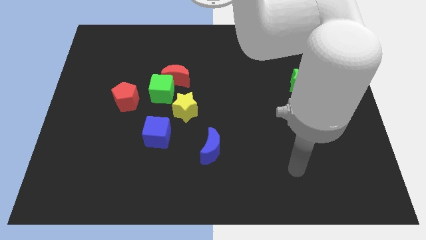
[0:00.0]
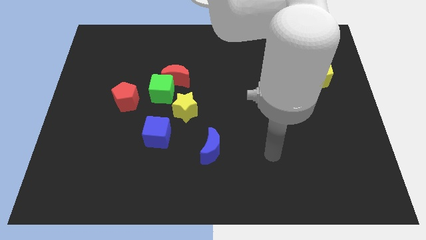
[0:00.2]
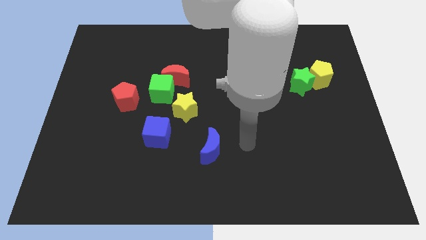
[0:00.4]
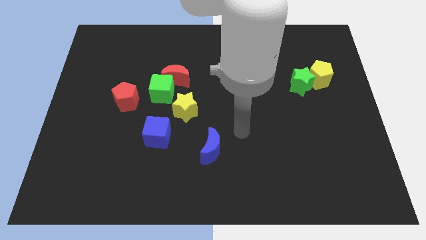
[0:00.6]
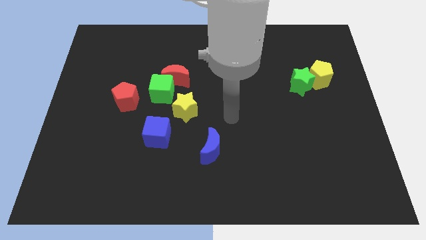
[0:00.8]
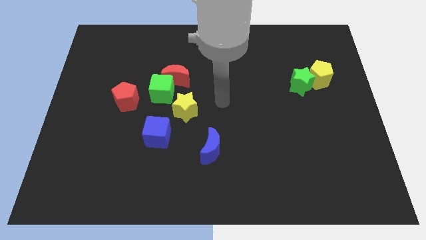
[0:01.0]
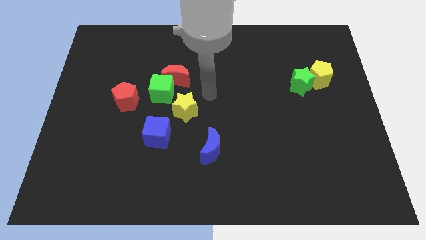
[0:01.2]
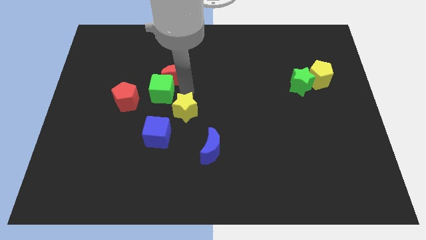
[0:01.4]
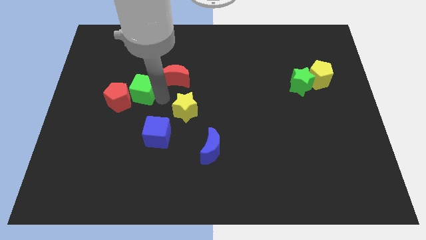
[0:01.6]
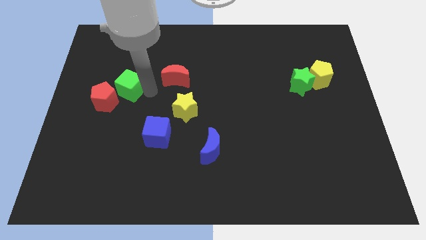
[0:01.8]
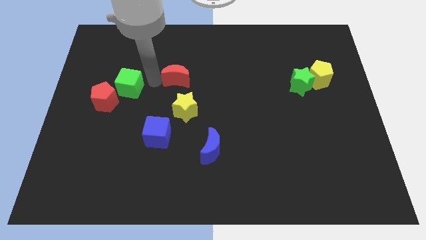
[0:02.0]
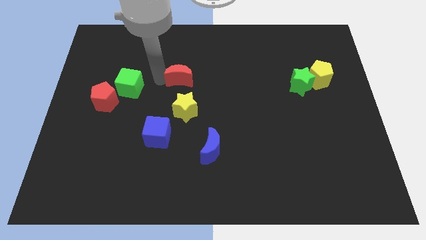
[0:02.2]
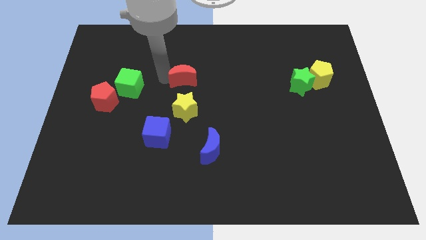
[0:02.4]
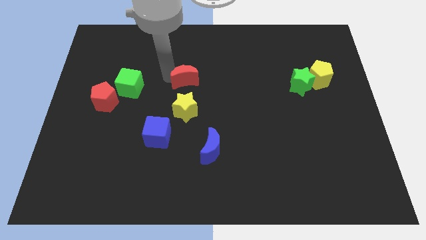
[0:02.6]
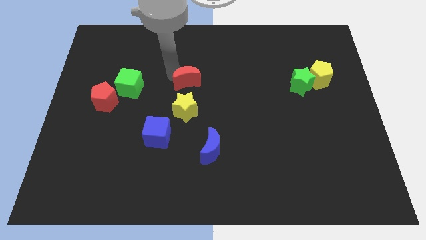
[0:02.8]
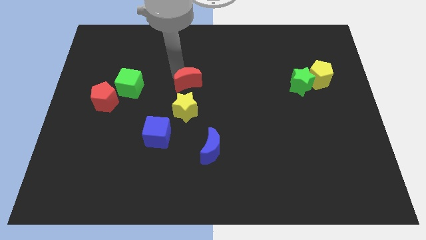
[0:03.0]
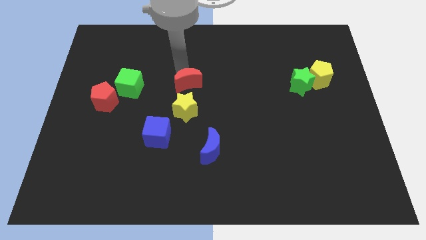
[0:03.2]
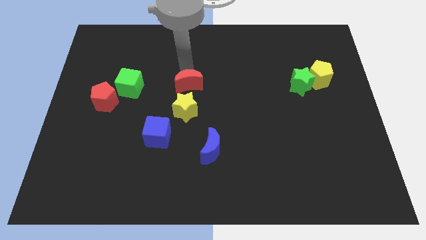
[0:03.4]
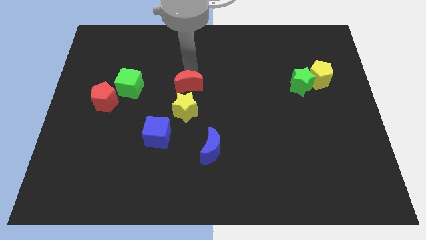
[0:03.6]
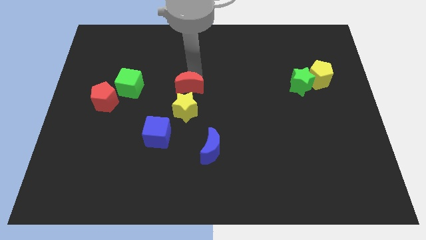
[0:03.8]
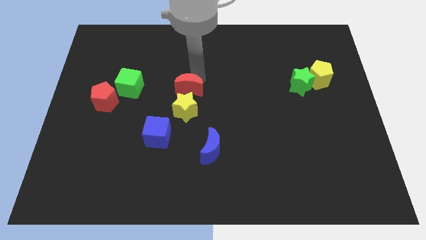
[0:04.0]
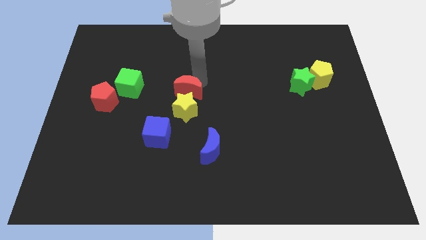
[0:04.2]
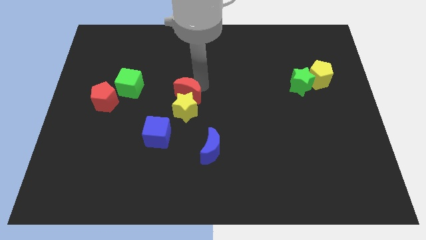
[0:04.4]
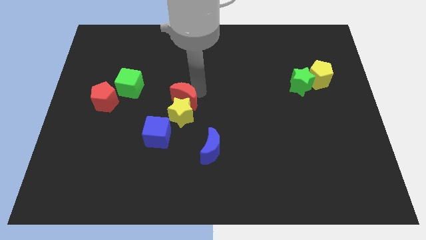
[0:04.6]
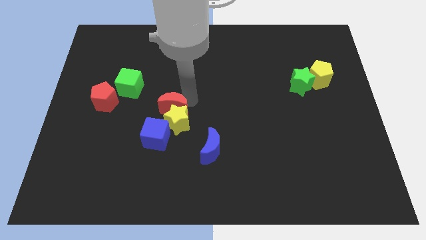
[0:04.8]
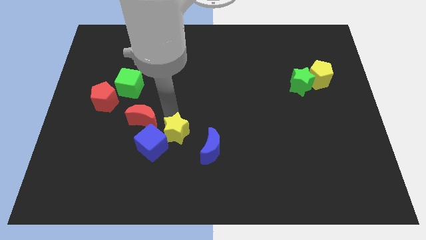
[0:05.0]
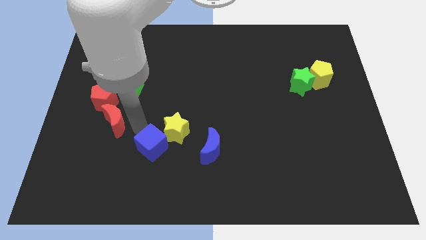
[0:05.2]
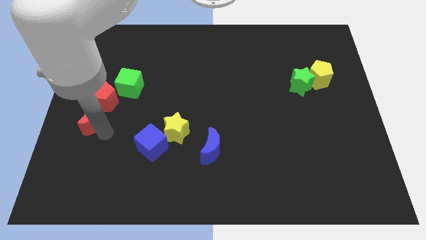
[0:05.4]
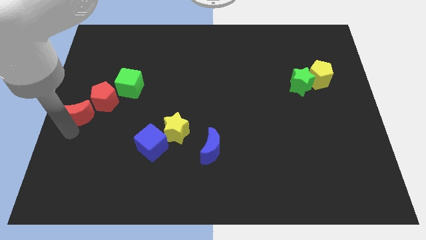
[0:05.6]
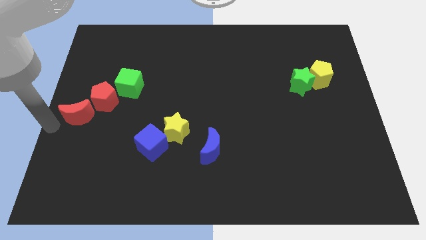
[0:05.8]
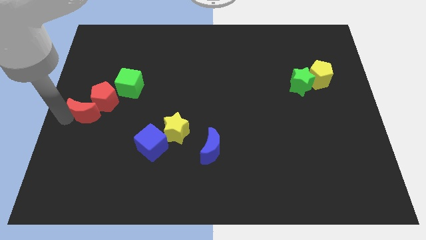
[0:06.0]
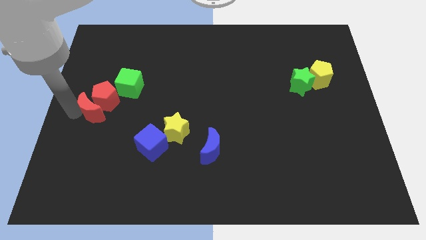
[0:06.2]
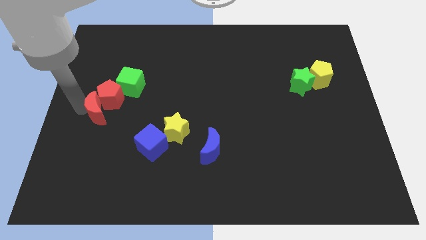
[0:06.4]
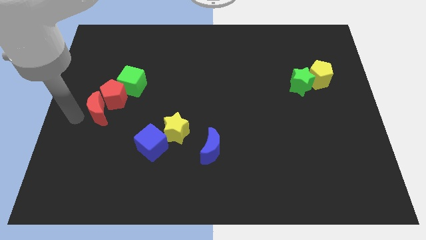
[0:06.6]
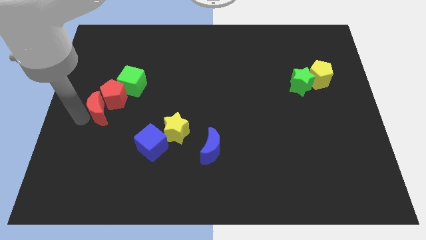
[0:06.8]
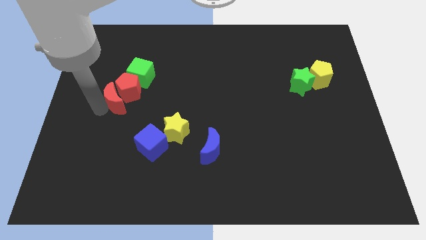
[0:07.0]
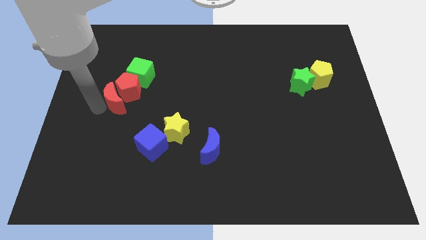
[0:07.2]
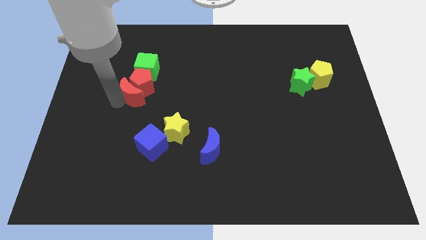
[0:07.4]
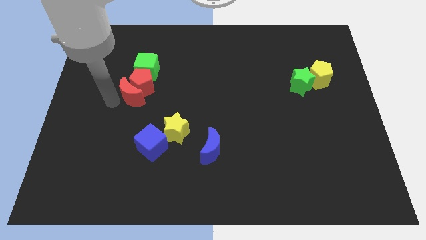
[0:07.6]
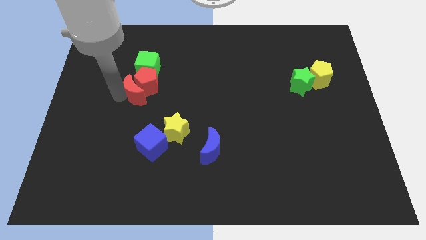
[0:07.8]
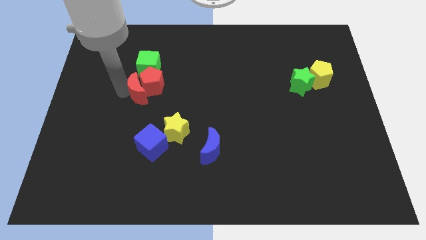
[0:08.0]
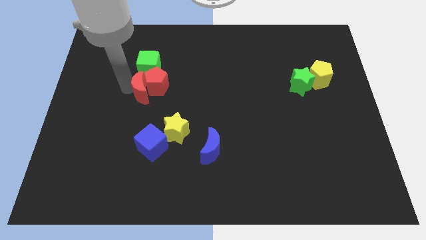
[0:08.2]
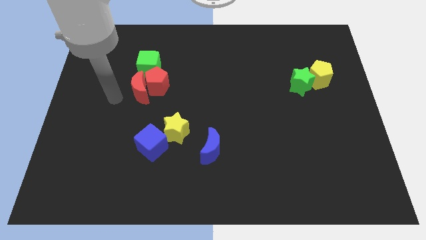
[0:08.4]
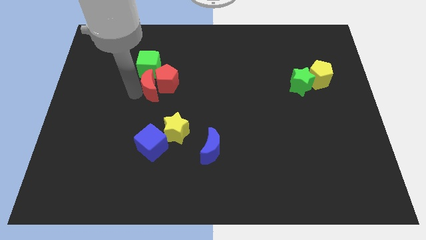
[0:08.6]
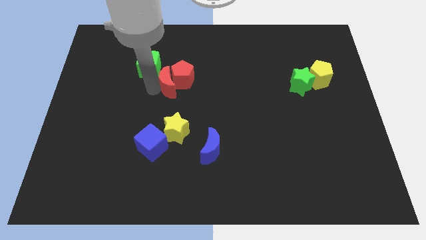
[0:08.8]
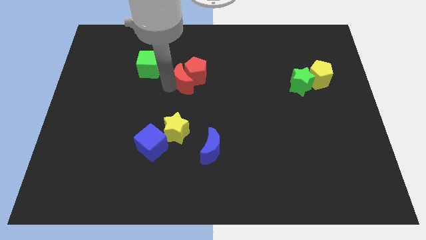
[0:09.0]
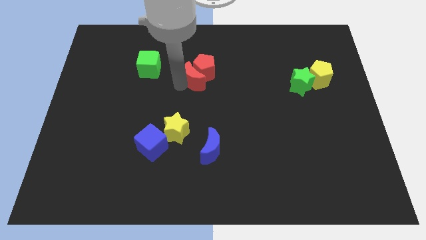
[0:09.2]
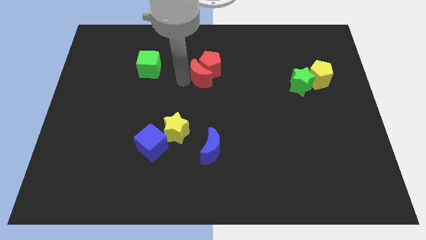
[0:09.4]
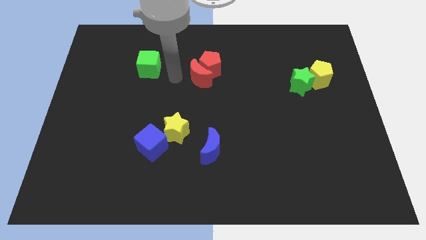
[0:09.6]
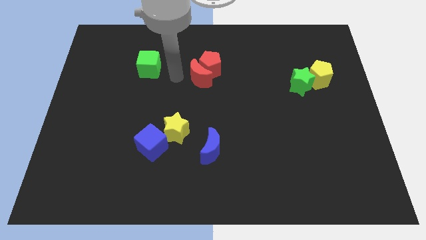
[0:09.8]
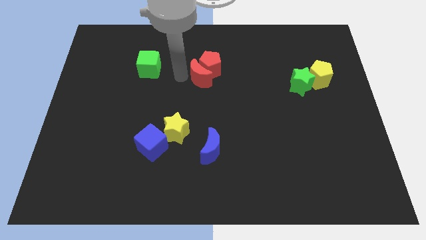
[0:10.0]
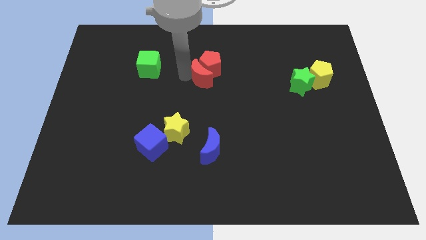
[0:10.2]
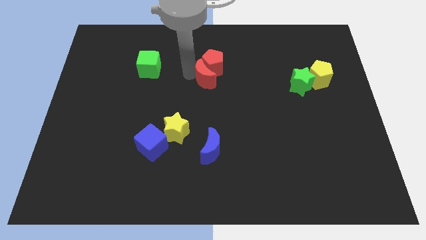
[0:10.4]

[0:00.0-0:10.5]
slightly move the red moon right

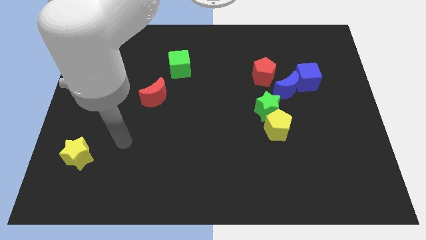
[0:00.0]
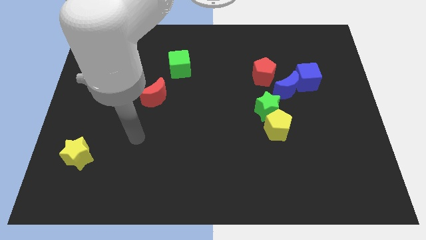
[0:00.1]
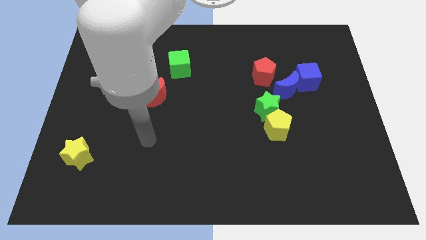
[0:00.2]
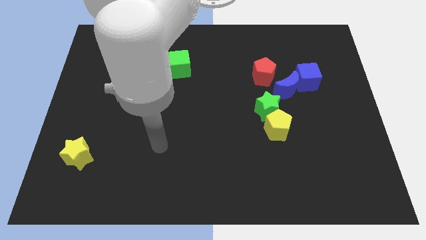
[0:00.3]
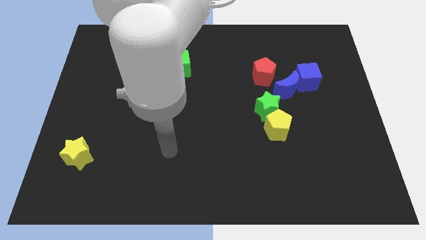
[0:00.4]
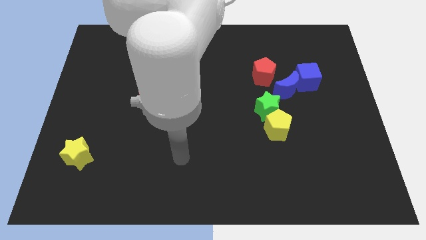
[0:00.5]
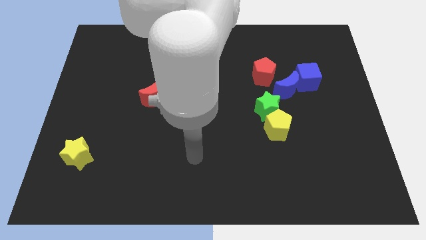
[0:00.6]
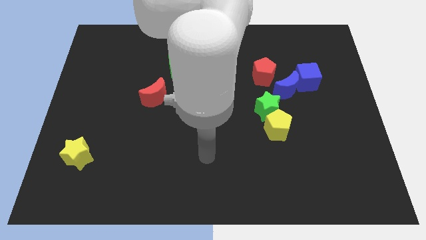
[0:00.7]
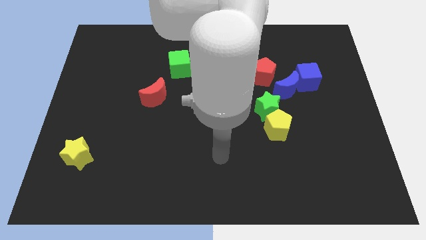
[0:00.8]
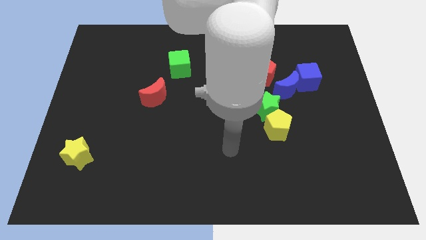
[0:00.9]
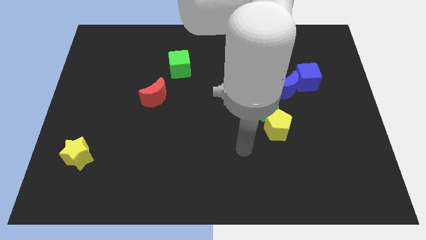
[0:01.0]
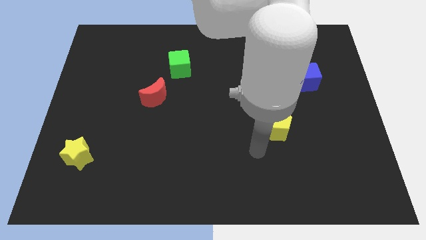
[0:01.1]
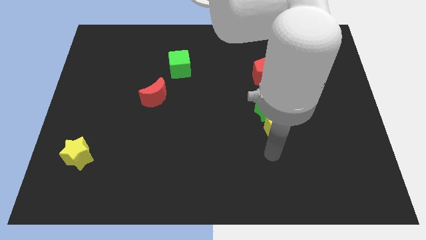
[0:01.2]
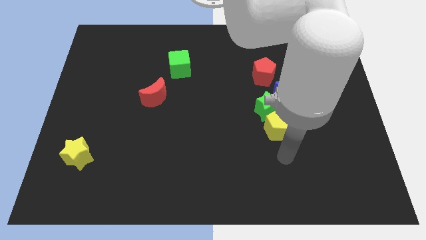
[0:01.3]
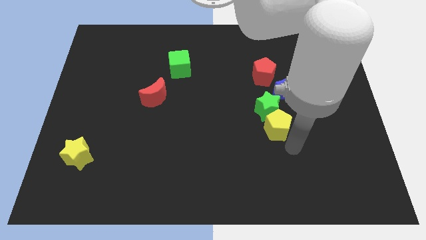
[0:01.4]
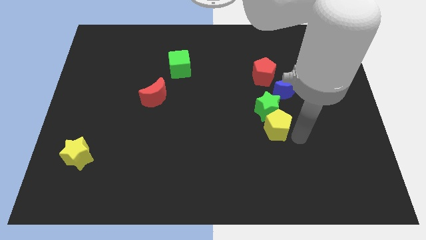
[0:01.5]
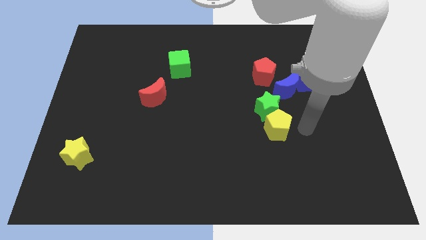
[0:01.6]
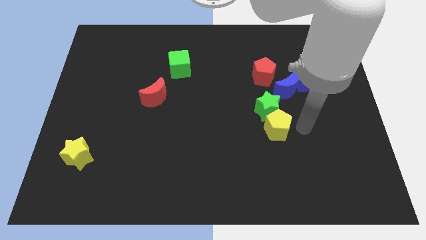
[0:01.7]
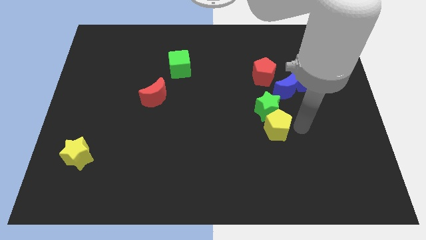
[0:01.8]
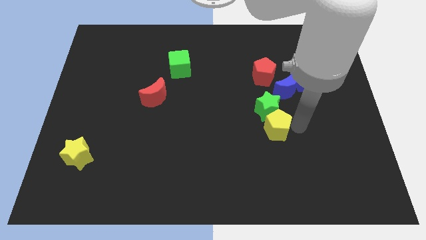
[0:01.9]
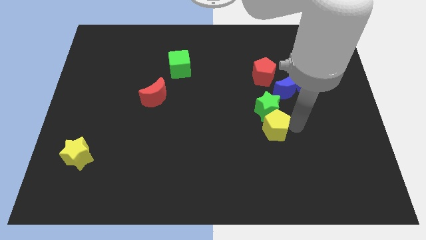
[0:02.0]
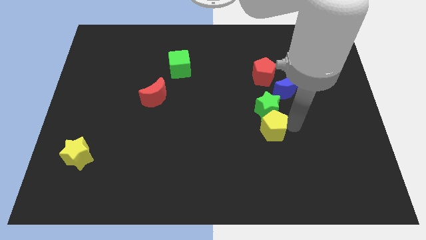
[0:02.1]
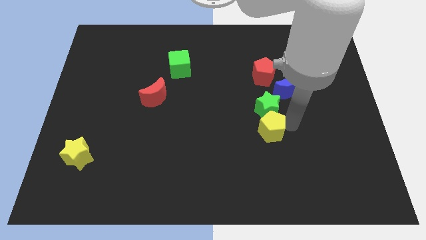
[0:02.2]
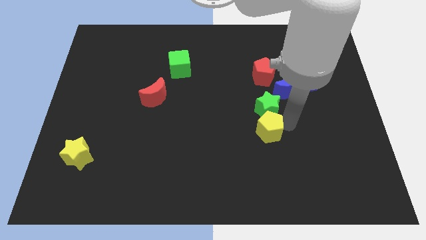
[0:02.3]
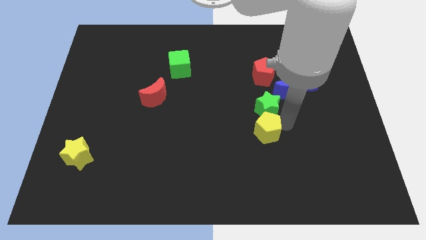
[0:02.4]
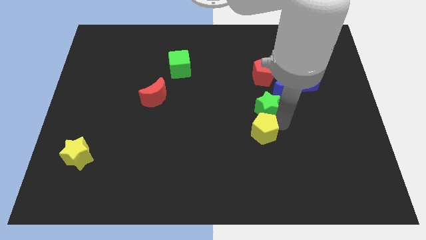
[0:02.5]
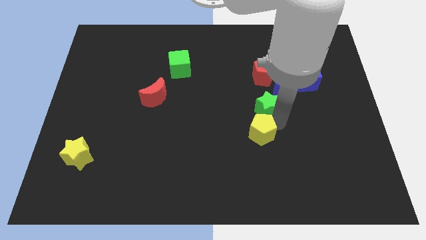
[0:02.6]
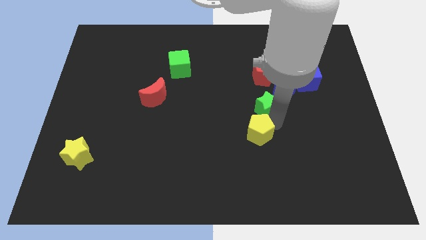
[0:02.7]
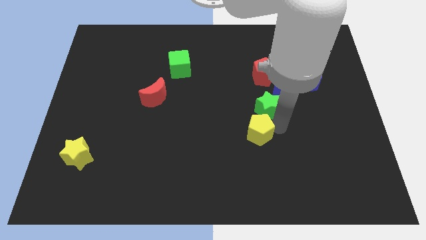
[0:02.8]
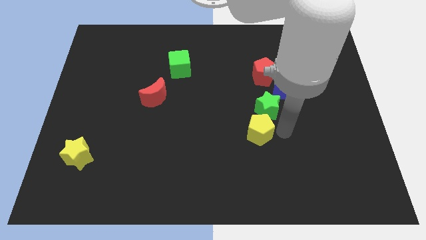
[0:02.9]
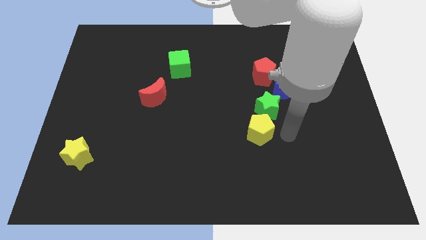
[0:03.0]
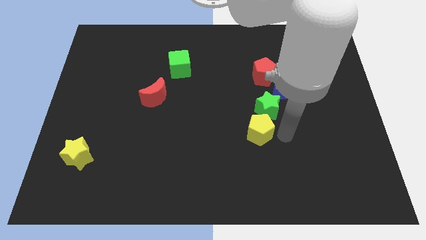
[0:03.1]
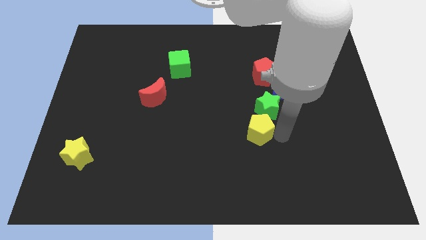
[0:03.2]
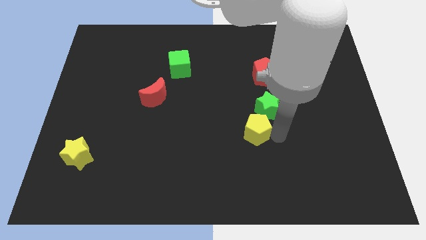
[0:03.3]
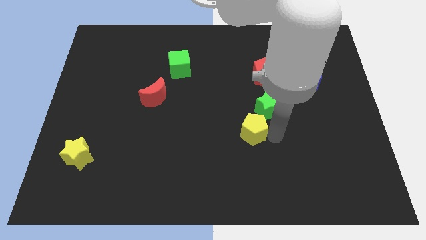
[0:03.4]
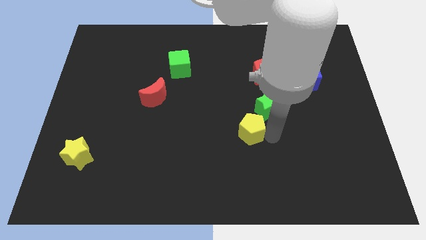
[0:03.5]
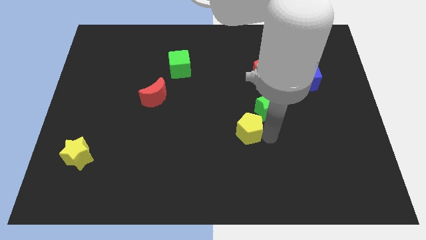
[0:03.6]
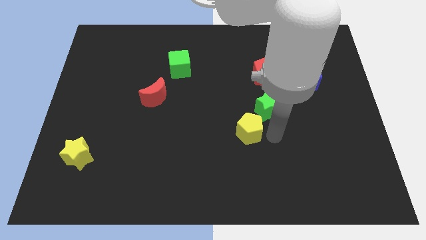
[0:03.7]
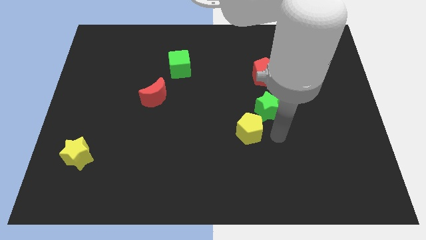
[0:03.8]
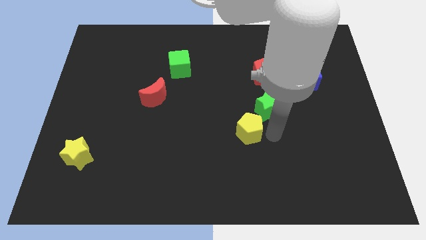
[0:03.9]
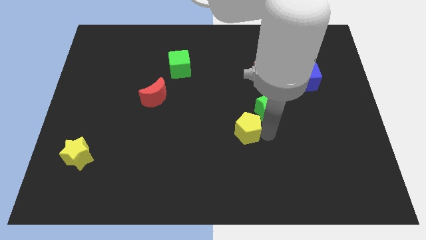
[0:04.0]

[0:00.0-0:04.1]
slide the yellow pentagon a little bit left
